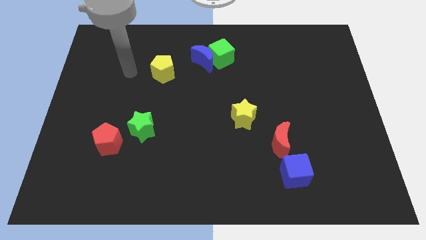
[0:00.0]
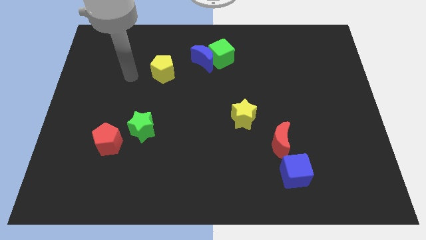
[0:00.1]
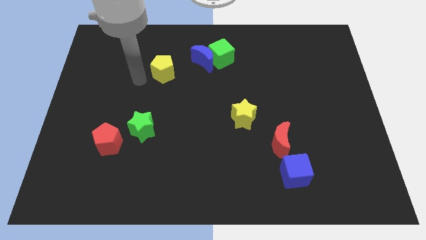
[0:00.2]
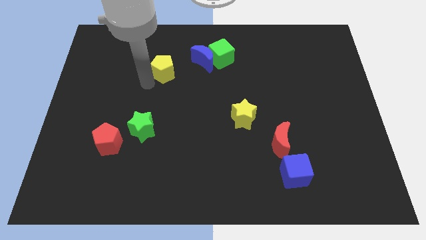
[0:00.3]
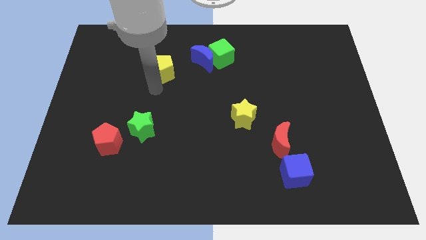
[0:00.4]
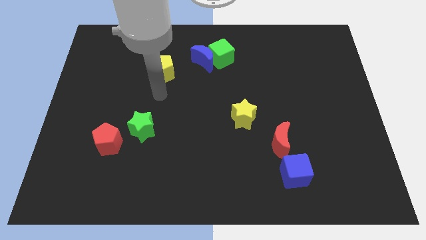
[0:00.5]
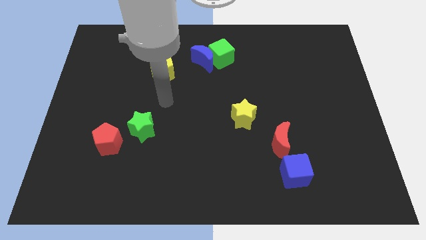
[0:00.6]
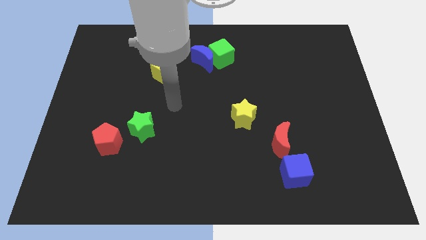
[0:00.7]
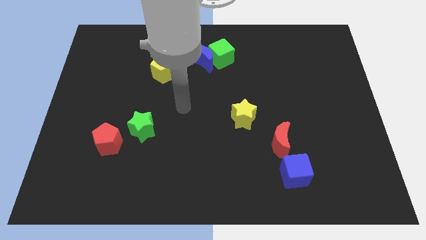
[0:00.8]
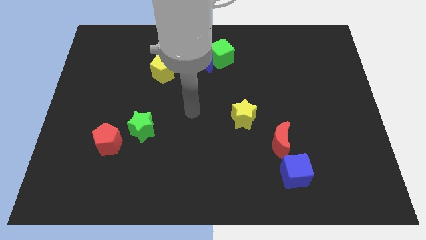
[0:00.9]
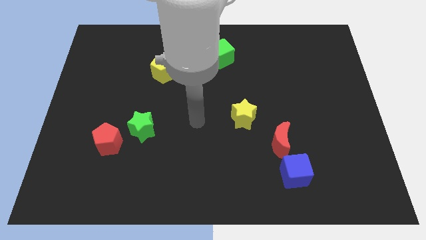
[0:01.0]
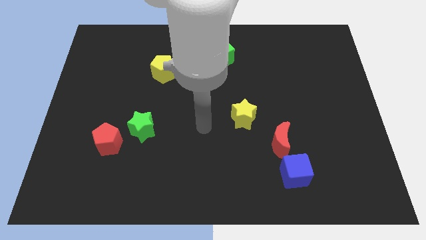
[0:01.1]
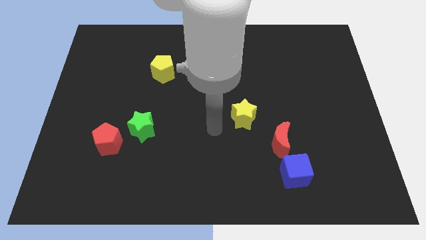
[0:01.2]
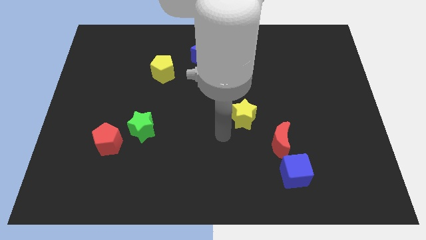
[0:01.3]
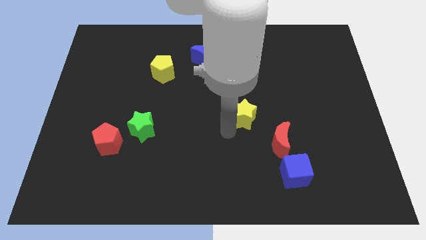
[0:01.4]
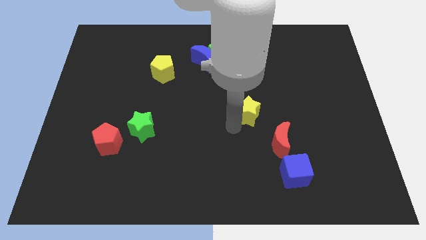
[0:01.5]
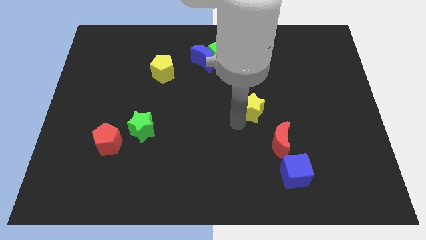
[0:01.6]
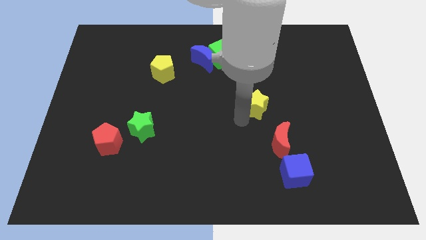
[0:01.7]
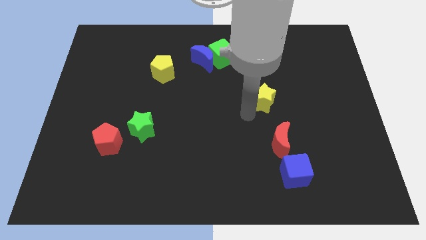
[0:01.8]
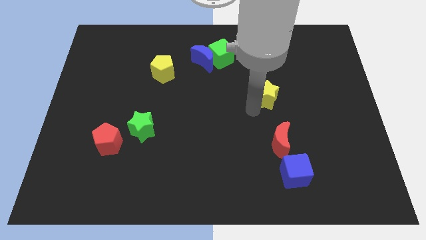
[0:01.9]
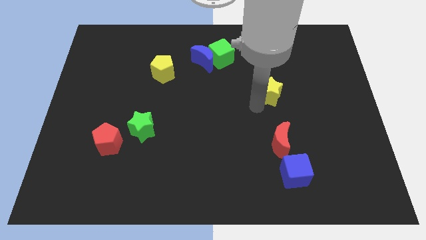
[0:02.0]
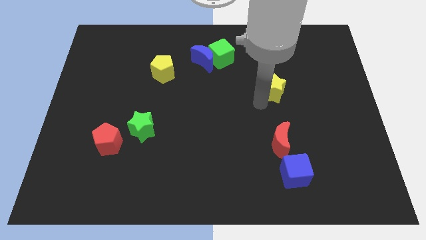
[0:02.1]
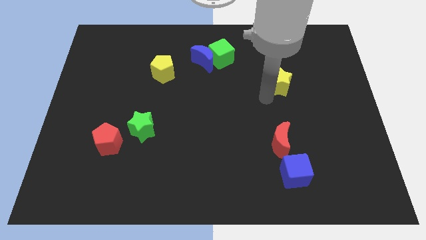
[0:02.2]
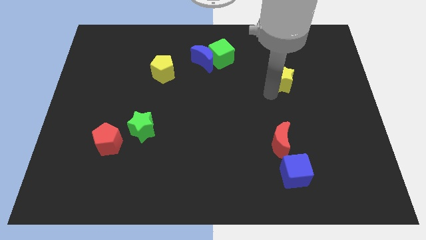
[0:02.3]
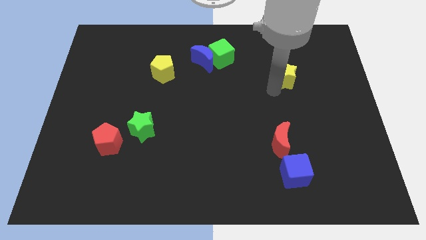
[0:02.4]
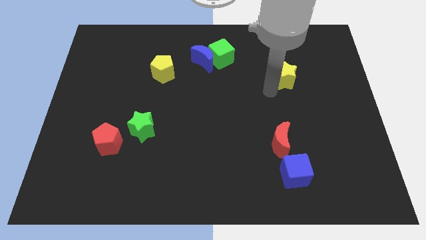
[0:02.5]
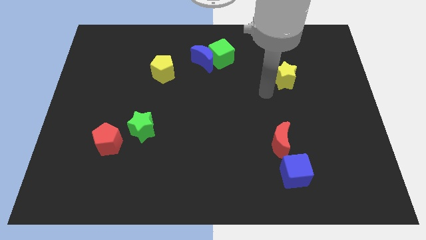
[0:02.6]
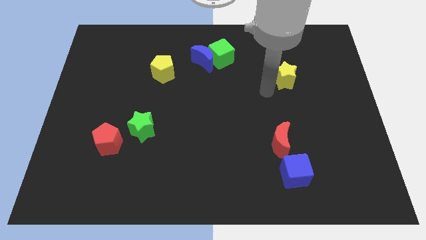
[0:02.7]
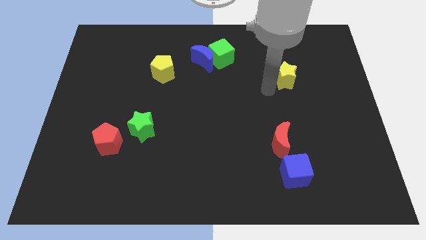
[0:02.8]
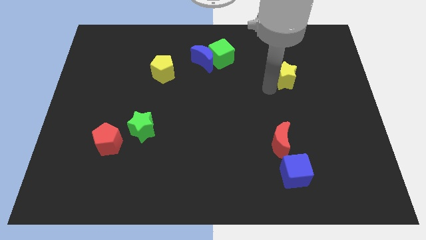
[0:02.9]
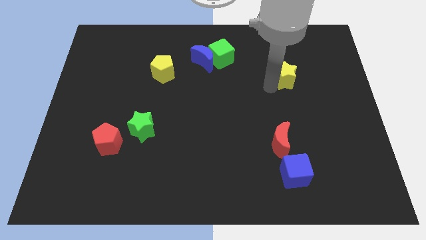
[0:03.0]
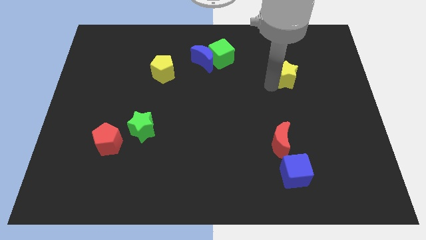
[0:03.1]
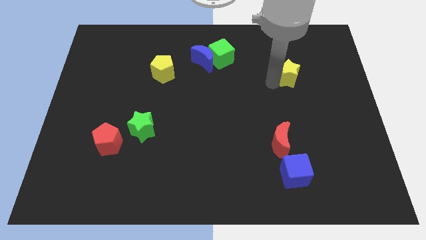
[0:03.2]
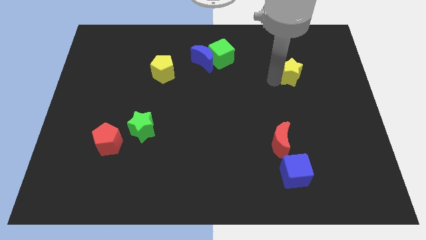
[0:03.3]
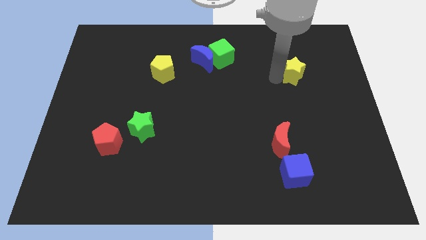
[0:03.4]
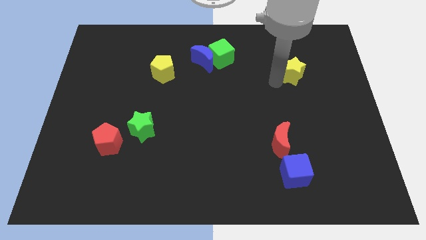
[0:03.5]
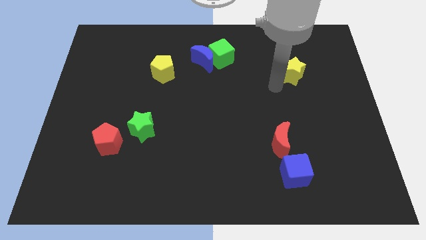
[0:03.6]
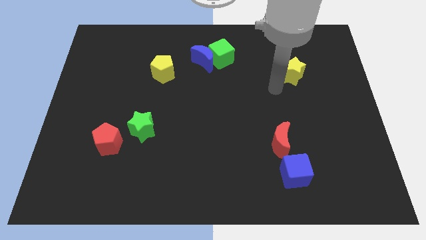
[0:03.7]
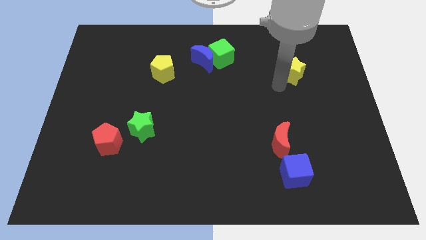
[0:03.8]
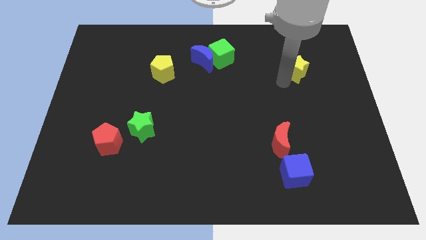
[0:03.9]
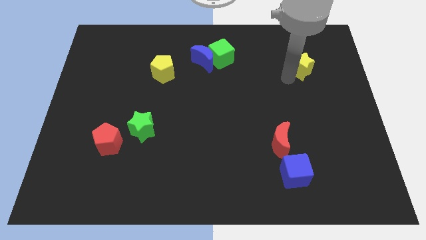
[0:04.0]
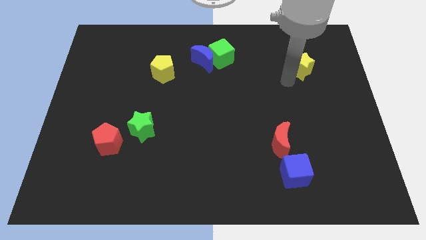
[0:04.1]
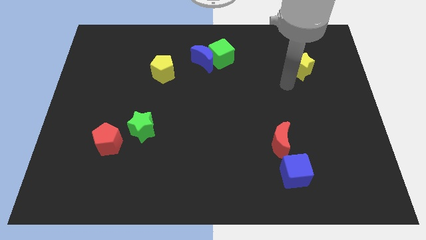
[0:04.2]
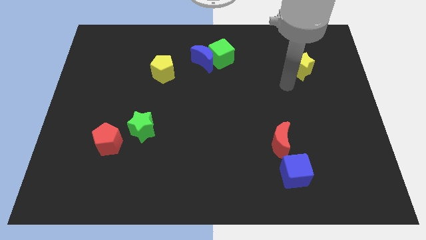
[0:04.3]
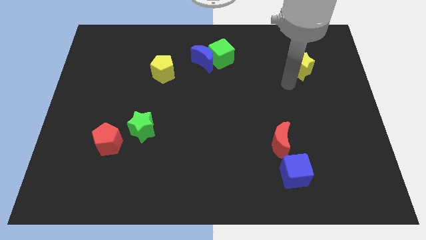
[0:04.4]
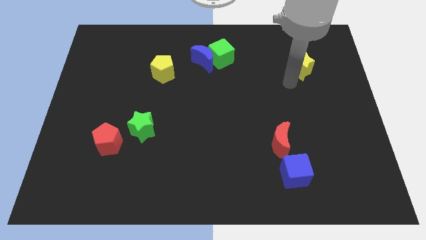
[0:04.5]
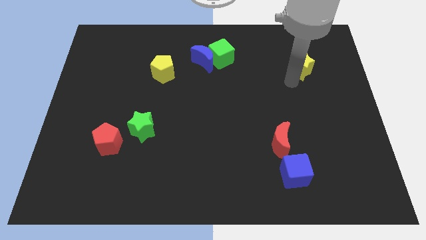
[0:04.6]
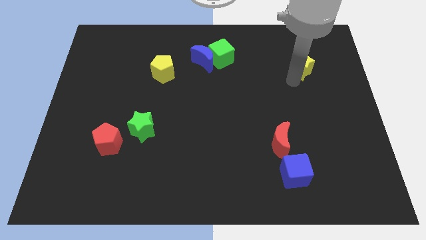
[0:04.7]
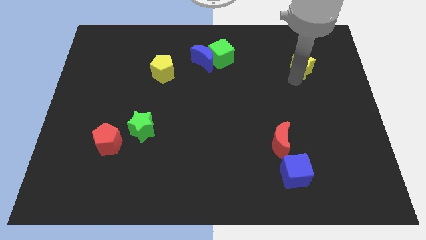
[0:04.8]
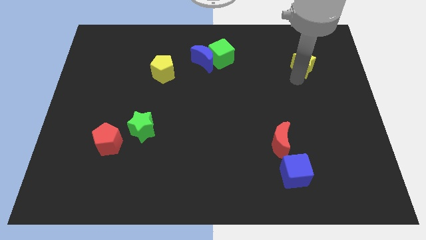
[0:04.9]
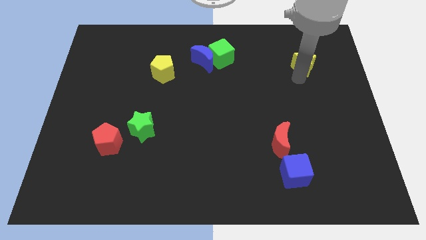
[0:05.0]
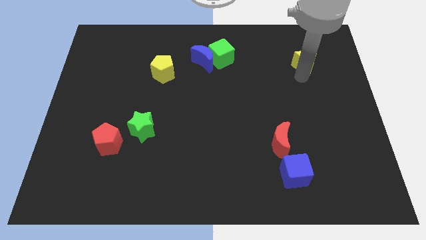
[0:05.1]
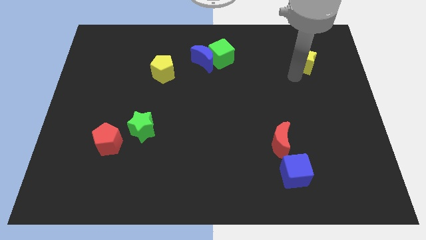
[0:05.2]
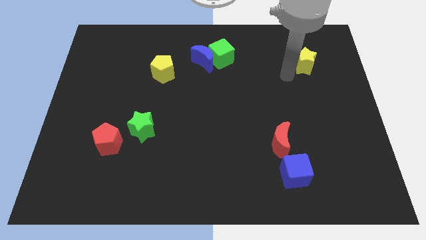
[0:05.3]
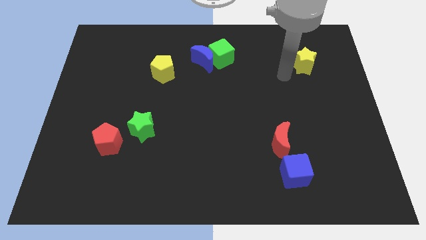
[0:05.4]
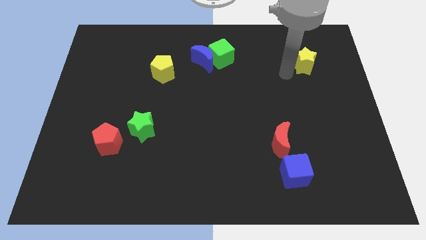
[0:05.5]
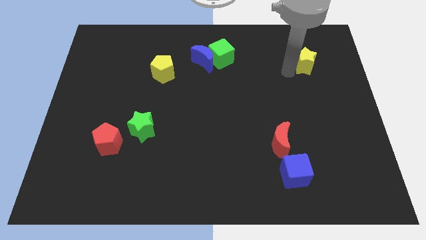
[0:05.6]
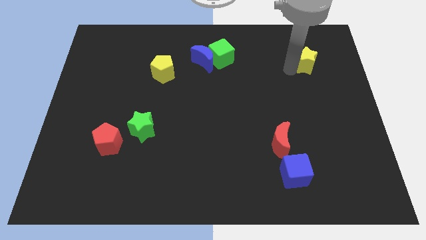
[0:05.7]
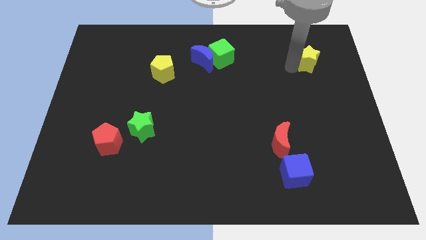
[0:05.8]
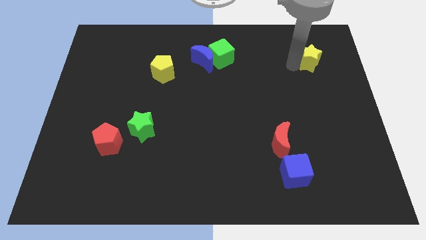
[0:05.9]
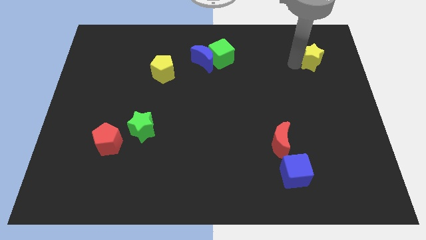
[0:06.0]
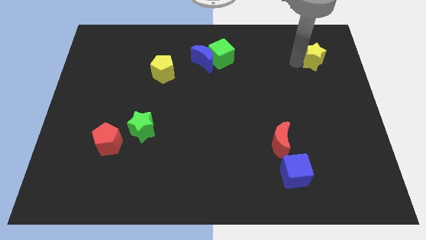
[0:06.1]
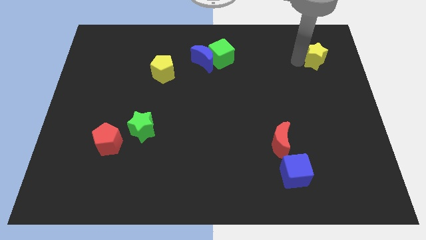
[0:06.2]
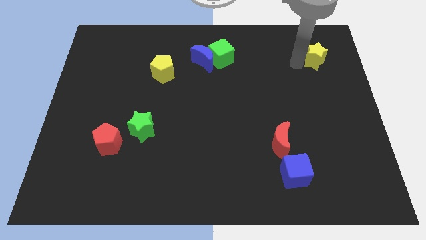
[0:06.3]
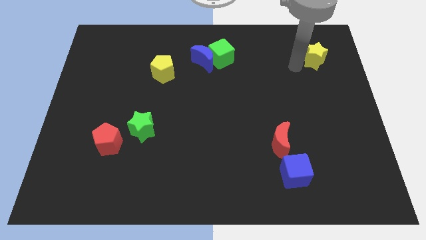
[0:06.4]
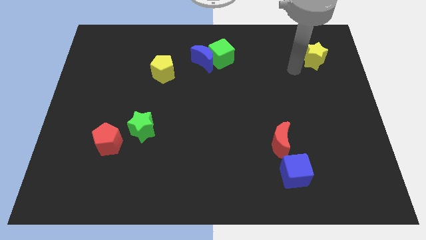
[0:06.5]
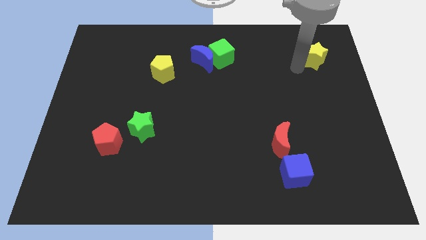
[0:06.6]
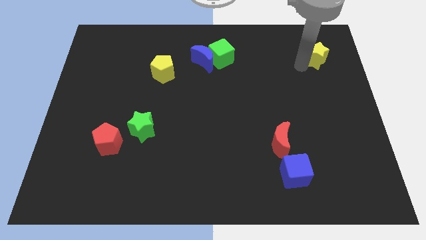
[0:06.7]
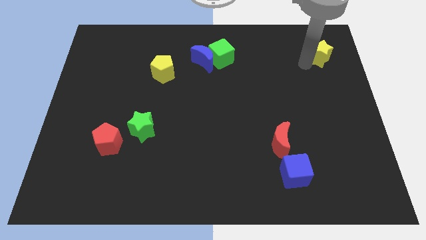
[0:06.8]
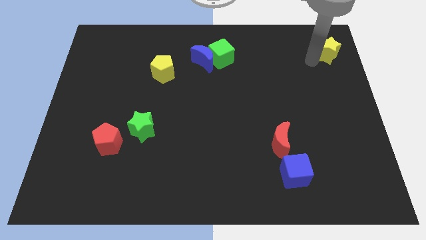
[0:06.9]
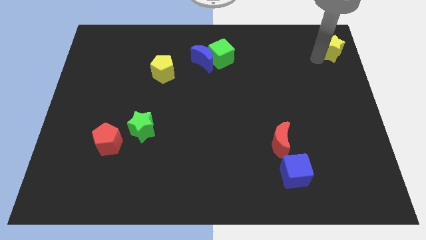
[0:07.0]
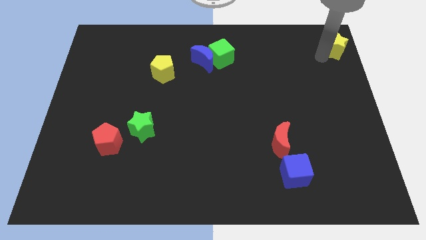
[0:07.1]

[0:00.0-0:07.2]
push the yellow star to the top right
